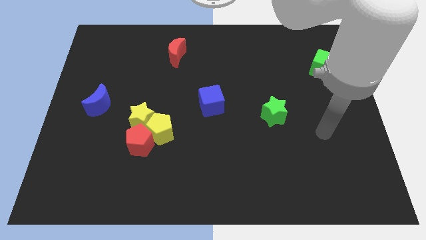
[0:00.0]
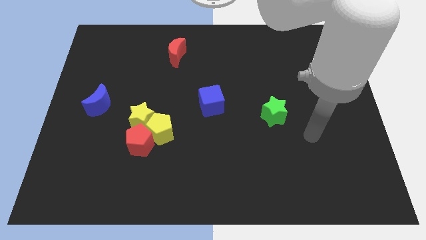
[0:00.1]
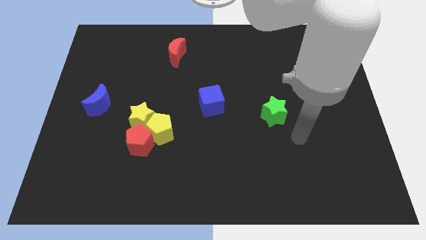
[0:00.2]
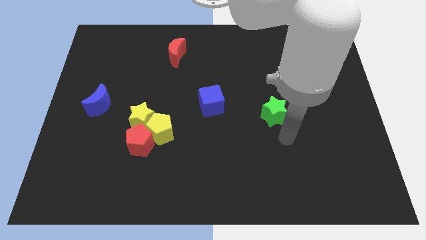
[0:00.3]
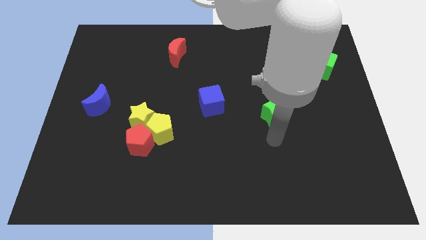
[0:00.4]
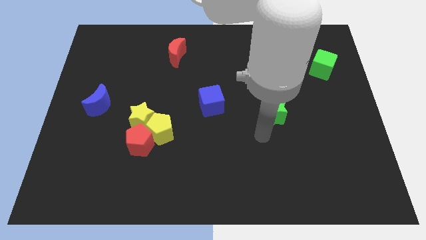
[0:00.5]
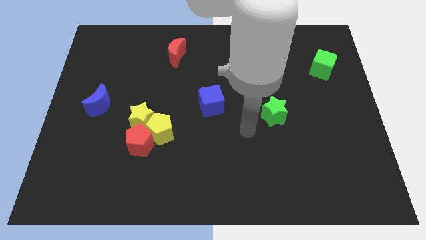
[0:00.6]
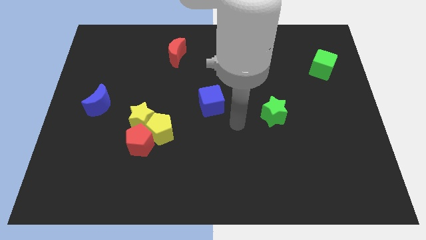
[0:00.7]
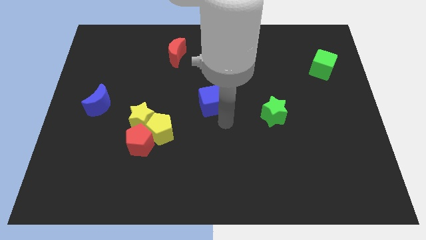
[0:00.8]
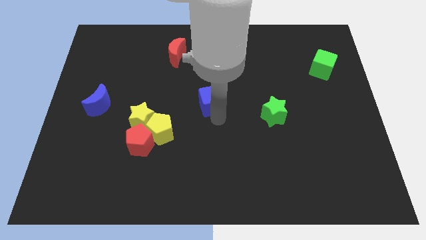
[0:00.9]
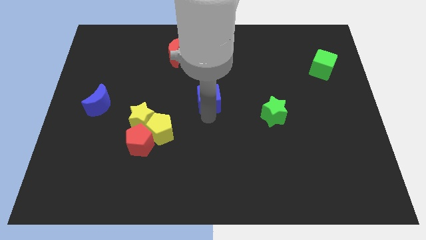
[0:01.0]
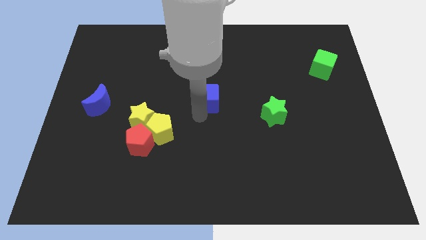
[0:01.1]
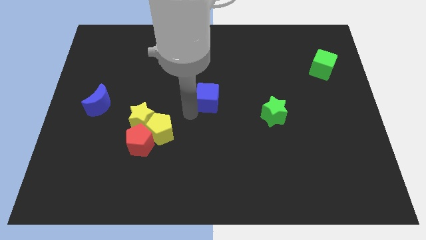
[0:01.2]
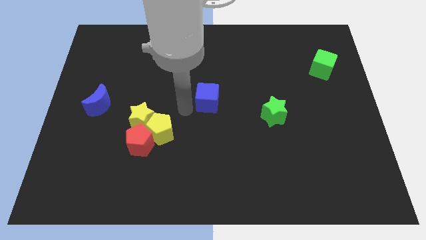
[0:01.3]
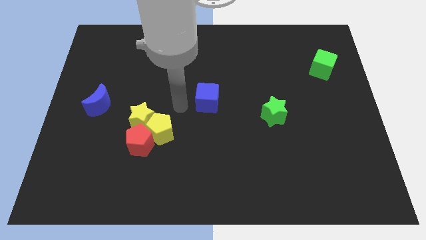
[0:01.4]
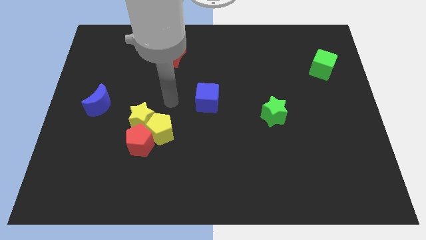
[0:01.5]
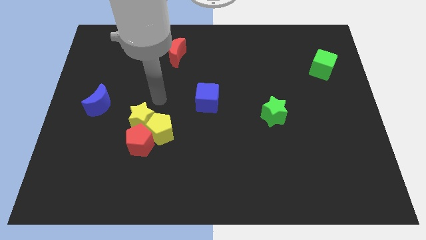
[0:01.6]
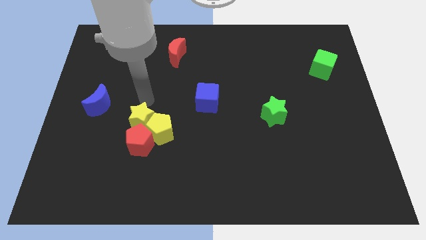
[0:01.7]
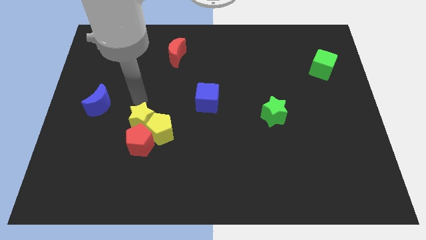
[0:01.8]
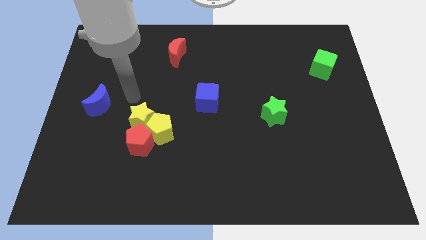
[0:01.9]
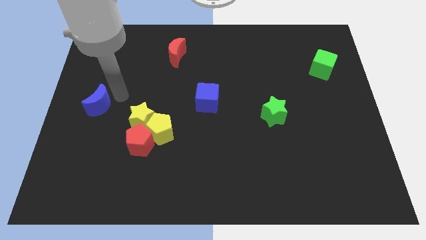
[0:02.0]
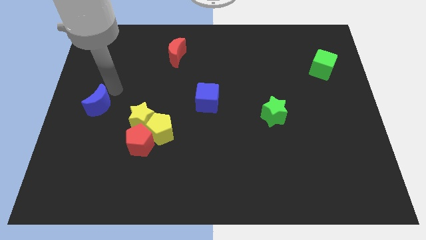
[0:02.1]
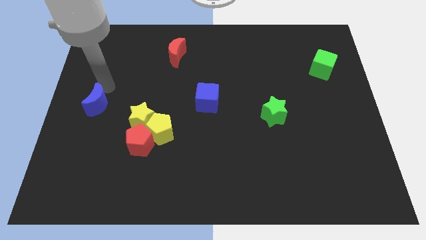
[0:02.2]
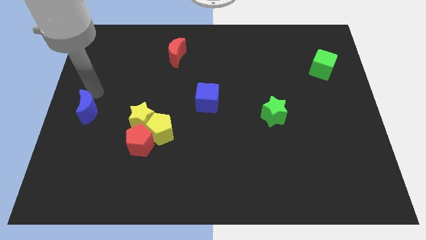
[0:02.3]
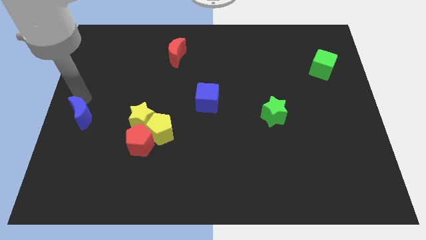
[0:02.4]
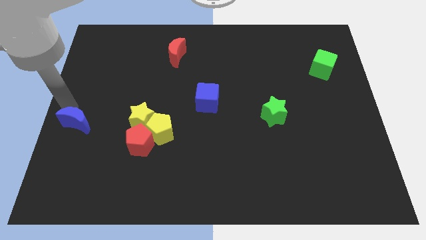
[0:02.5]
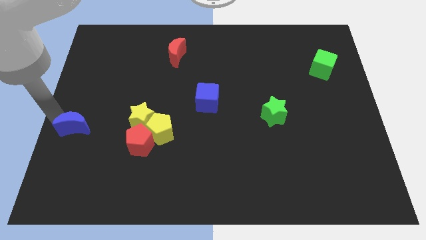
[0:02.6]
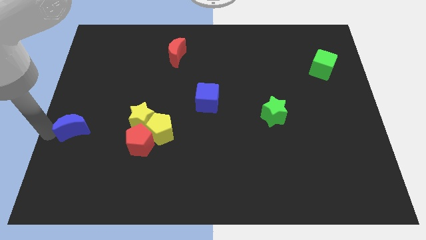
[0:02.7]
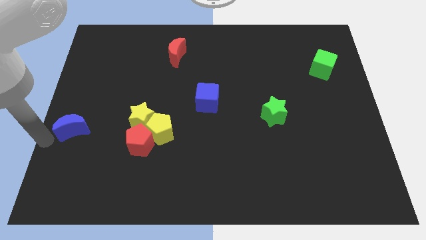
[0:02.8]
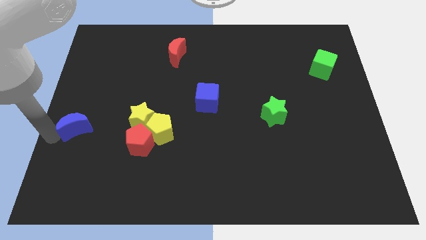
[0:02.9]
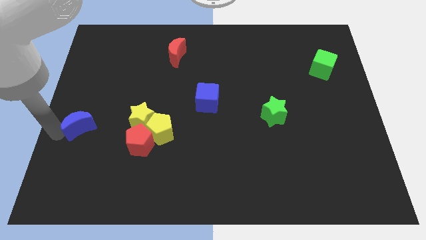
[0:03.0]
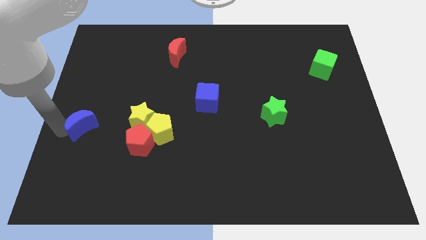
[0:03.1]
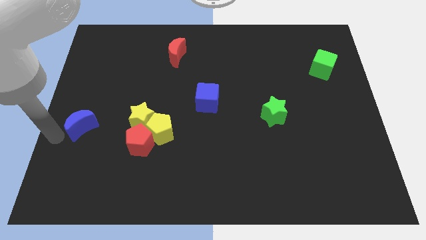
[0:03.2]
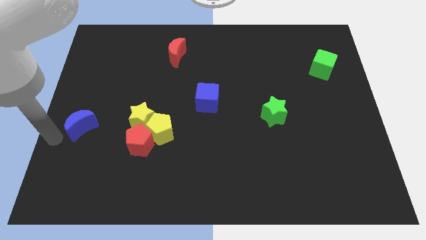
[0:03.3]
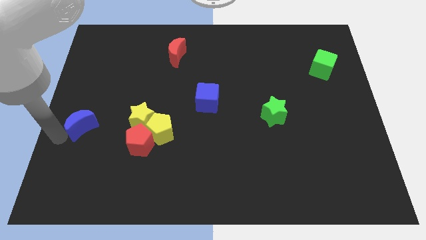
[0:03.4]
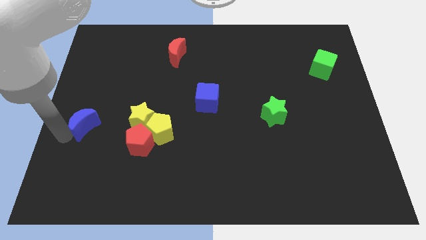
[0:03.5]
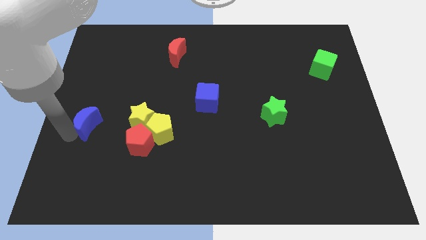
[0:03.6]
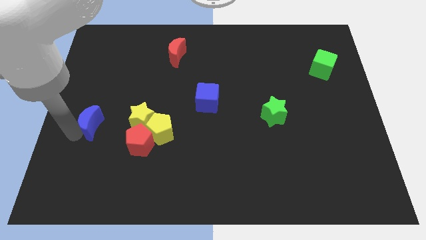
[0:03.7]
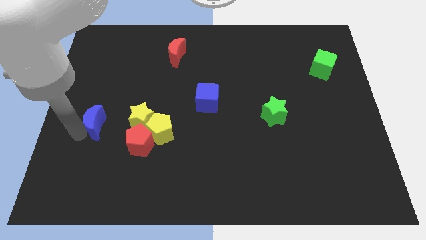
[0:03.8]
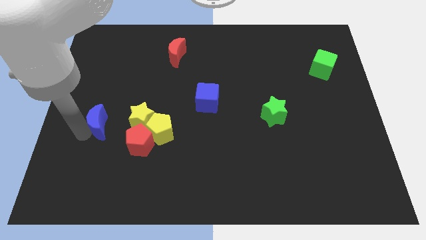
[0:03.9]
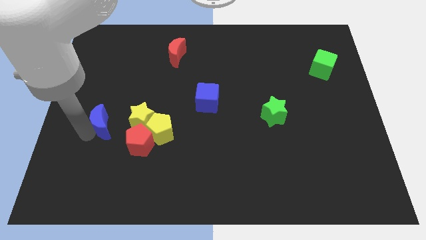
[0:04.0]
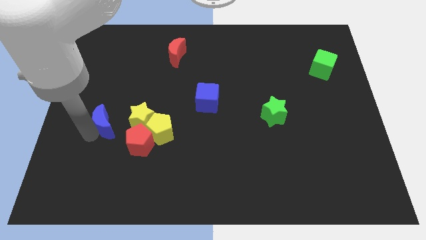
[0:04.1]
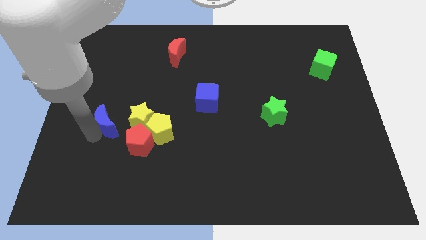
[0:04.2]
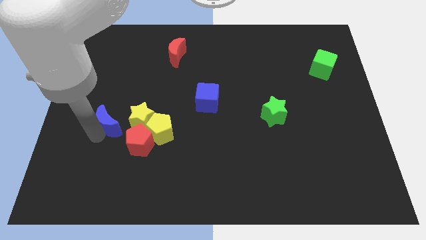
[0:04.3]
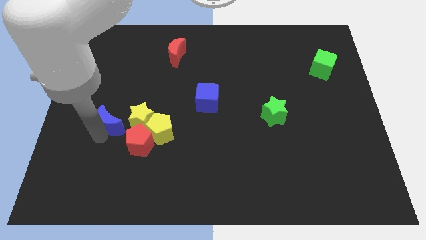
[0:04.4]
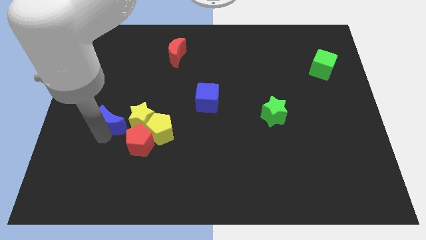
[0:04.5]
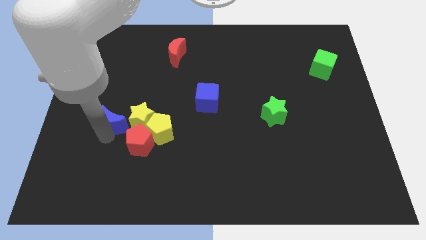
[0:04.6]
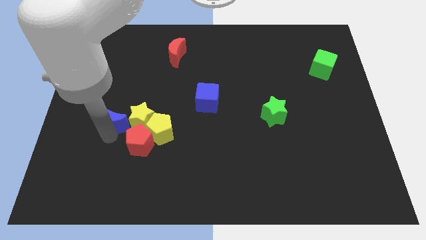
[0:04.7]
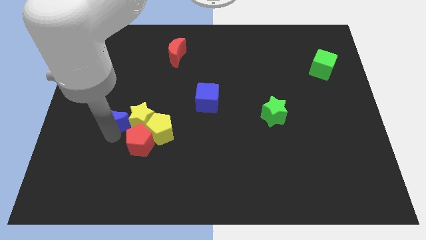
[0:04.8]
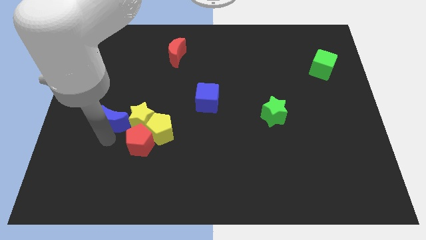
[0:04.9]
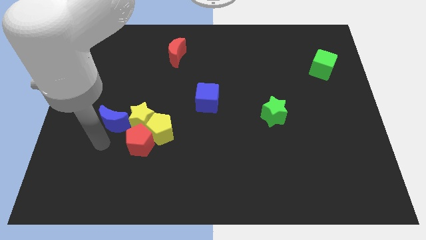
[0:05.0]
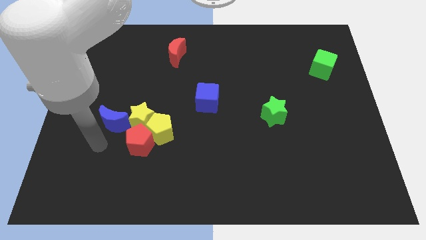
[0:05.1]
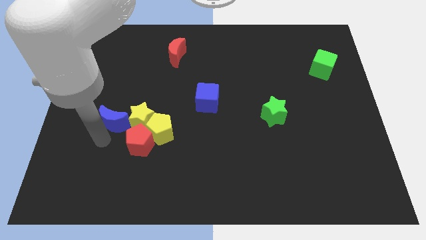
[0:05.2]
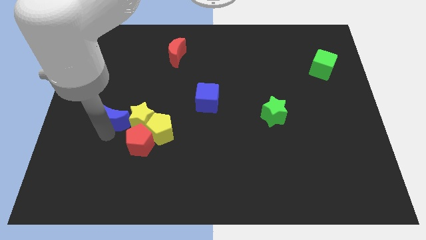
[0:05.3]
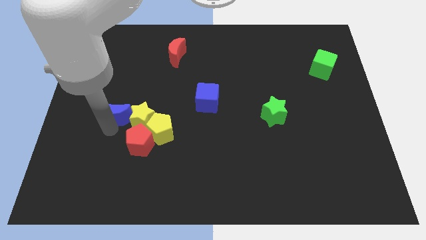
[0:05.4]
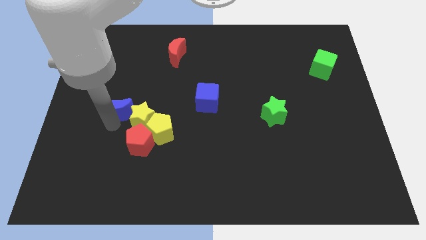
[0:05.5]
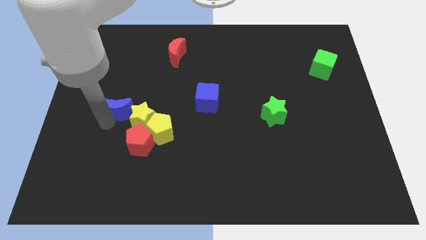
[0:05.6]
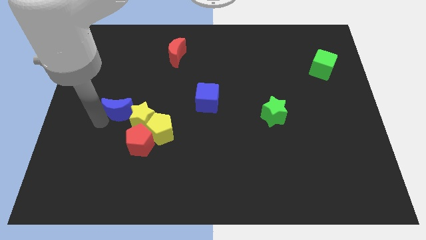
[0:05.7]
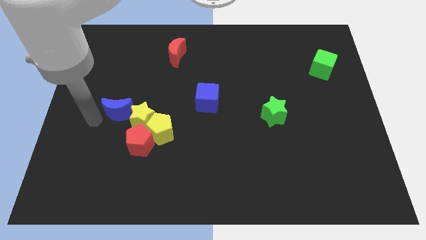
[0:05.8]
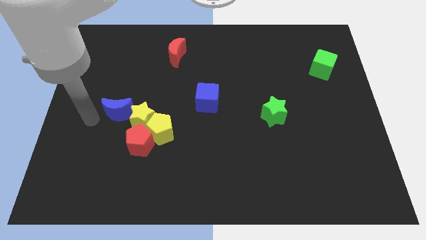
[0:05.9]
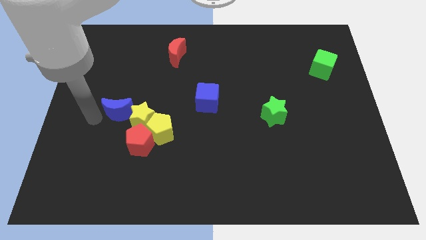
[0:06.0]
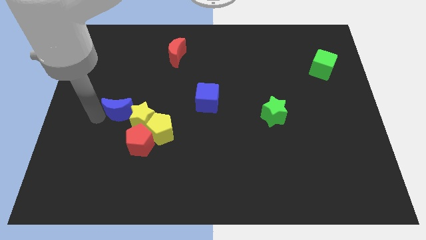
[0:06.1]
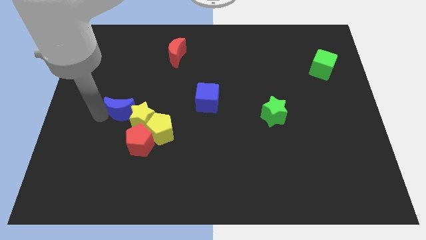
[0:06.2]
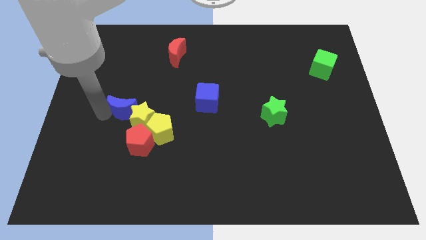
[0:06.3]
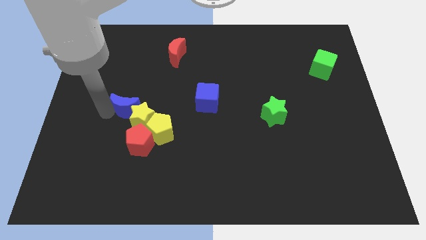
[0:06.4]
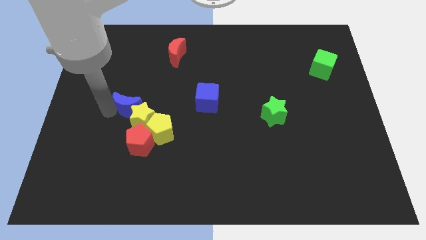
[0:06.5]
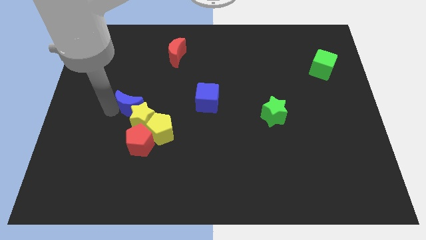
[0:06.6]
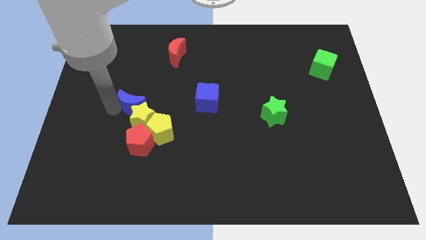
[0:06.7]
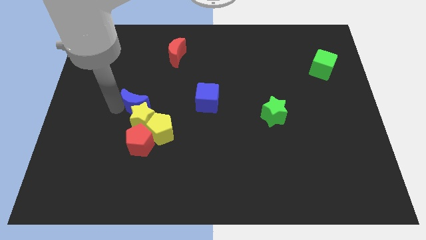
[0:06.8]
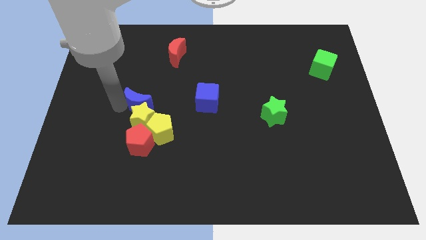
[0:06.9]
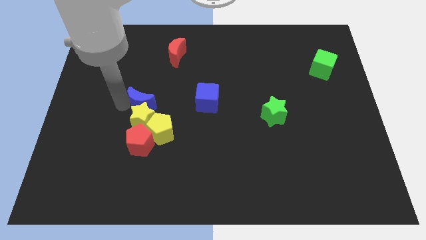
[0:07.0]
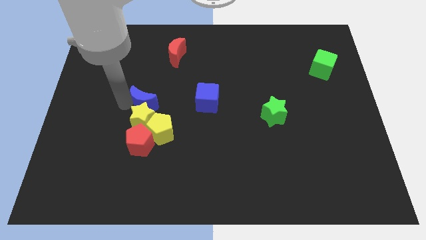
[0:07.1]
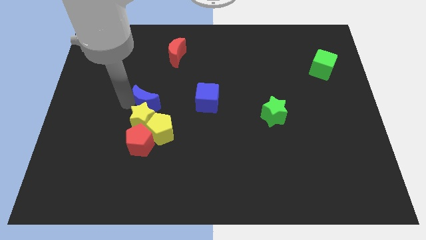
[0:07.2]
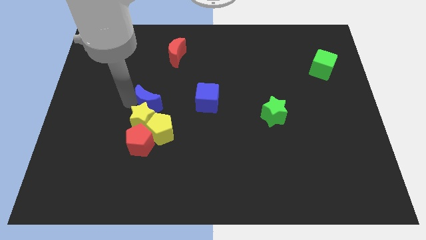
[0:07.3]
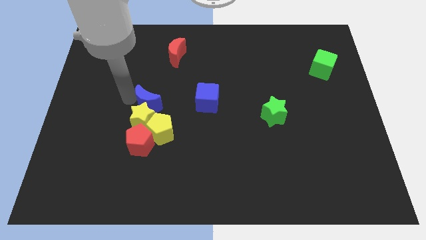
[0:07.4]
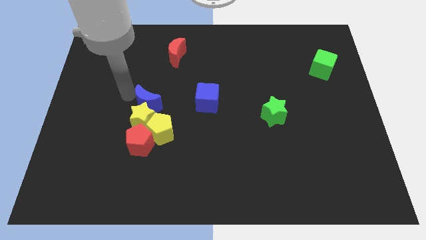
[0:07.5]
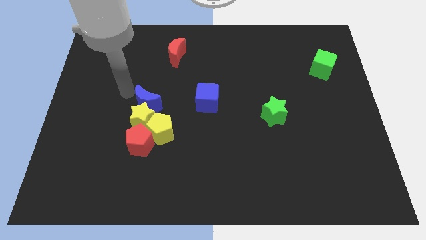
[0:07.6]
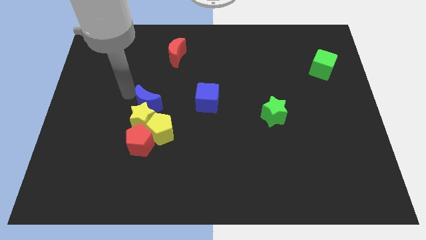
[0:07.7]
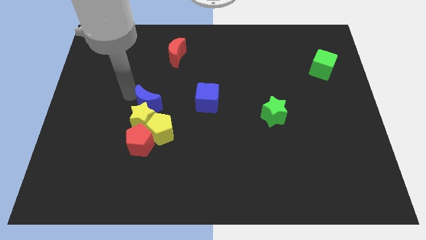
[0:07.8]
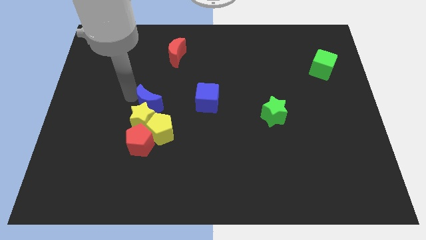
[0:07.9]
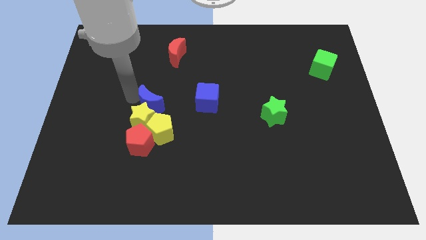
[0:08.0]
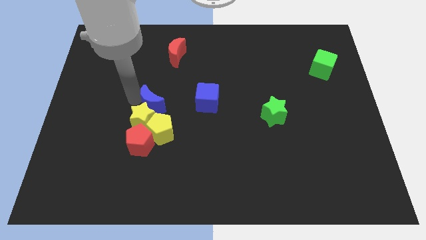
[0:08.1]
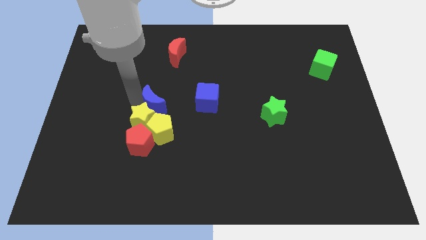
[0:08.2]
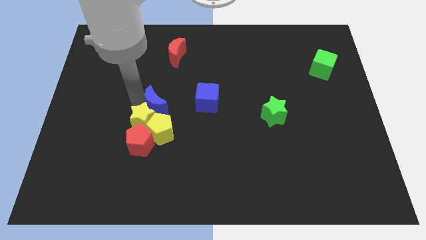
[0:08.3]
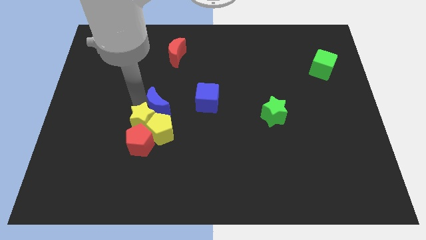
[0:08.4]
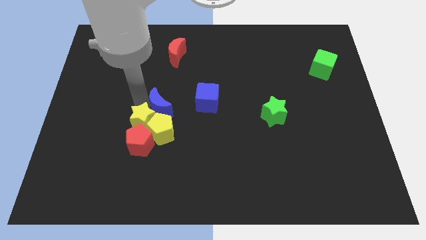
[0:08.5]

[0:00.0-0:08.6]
move the blue moon to the top right side of the red pentagon
